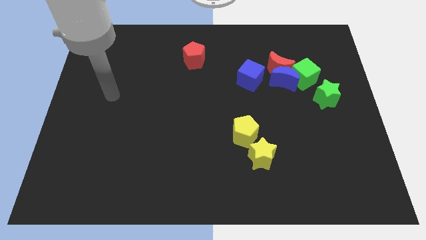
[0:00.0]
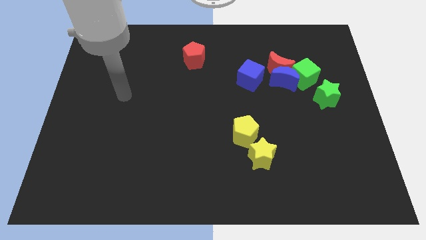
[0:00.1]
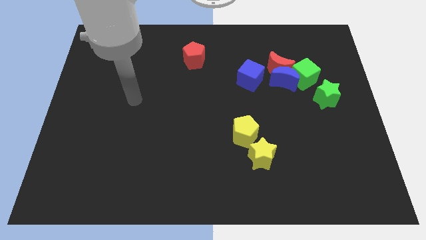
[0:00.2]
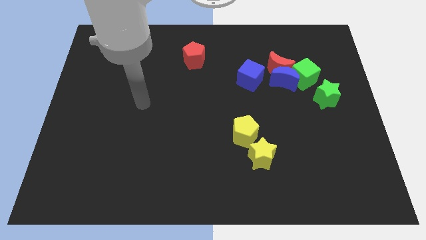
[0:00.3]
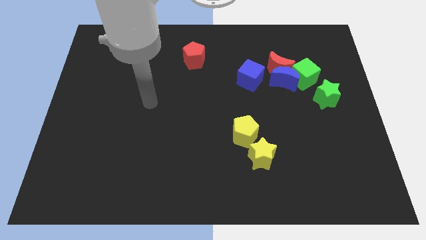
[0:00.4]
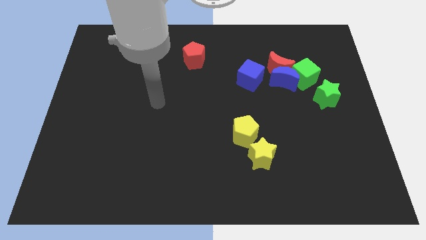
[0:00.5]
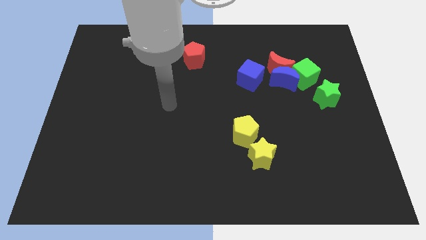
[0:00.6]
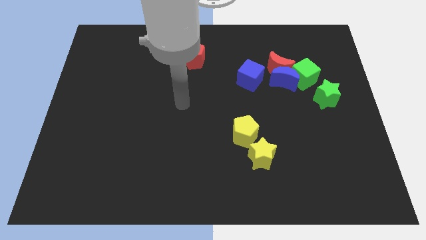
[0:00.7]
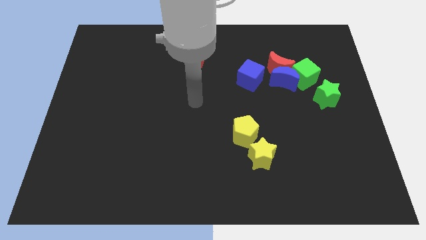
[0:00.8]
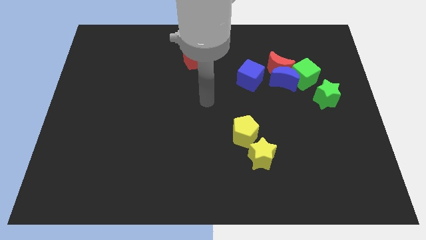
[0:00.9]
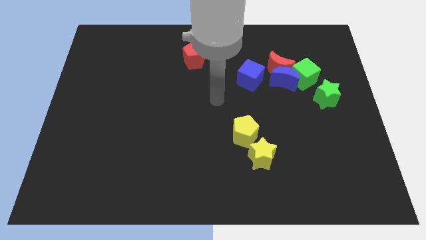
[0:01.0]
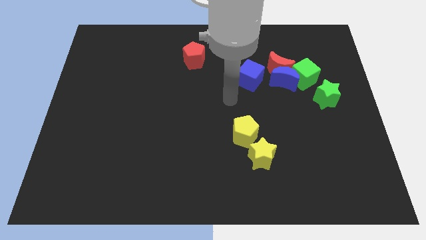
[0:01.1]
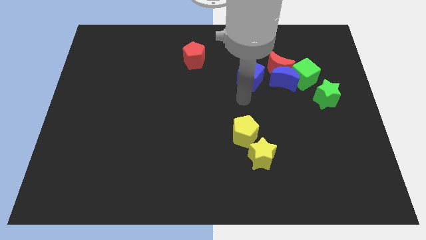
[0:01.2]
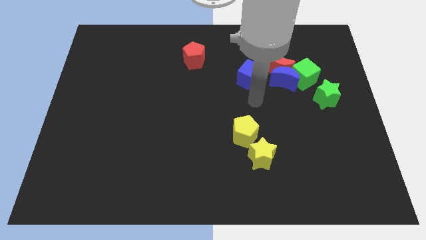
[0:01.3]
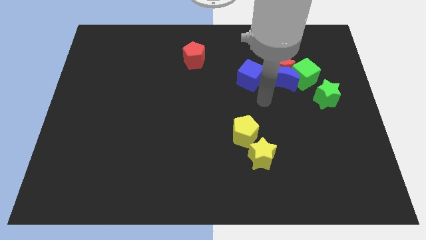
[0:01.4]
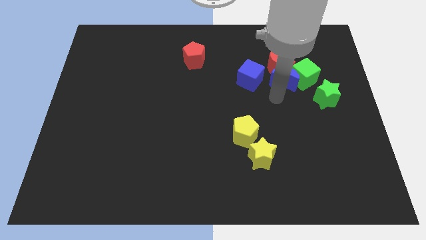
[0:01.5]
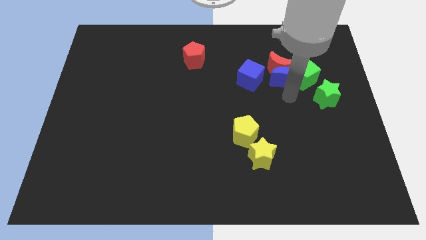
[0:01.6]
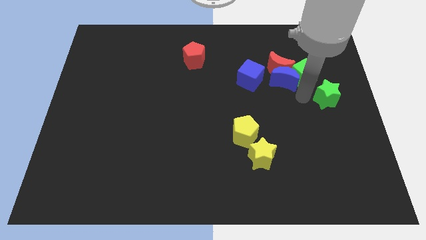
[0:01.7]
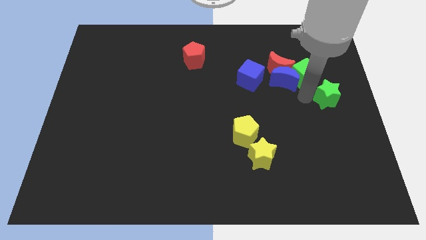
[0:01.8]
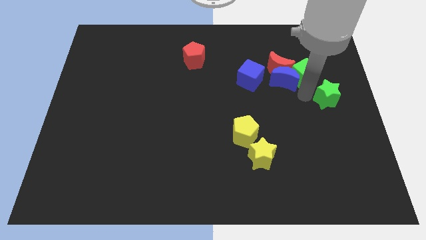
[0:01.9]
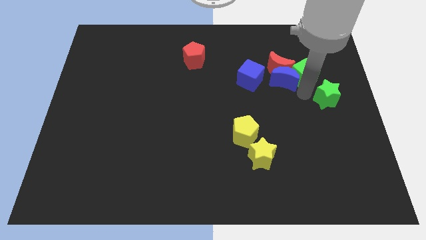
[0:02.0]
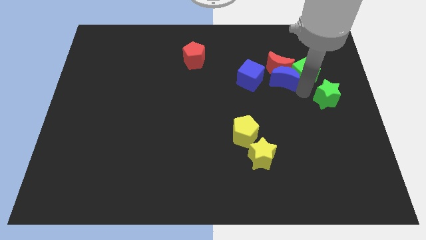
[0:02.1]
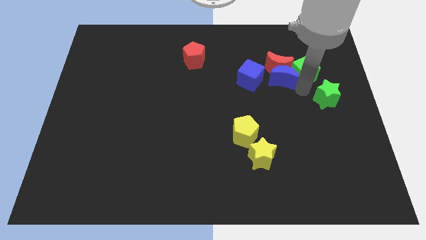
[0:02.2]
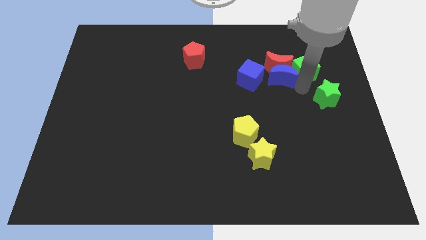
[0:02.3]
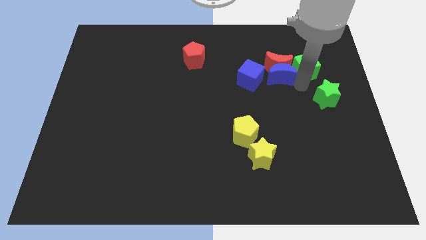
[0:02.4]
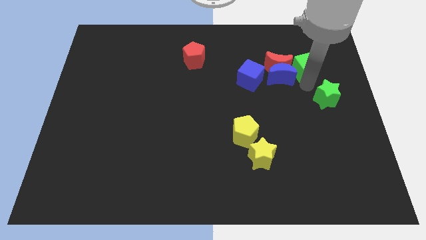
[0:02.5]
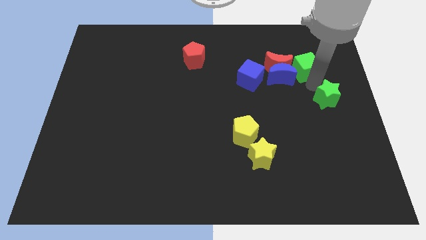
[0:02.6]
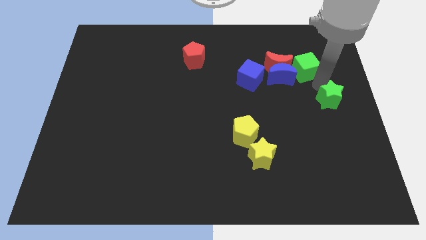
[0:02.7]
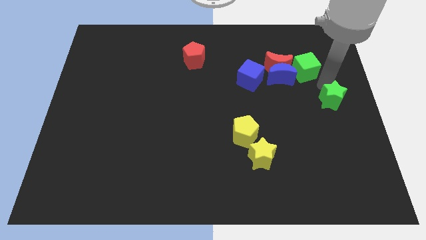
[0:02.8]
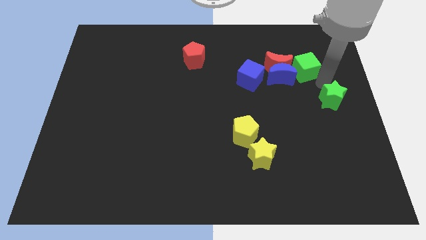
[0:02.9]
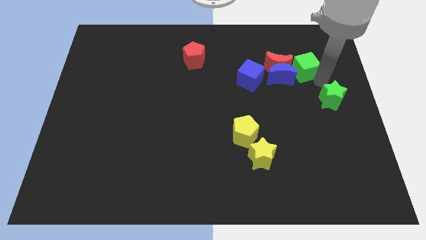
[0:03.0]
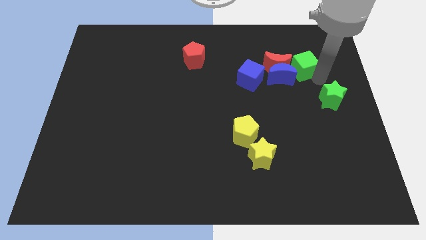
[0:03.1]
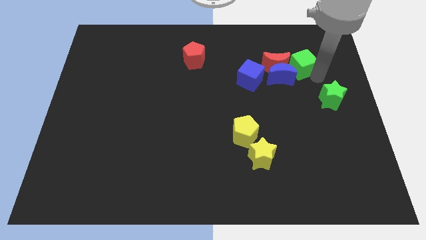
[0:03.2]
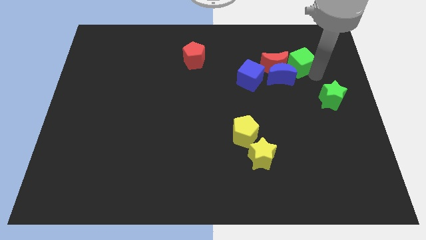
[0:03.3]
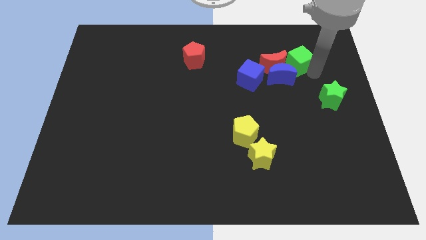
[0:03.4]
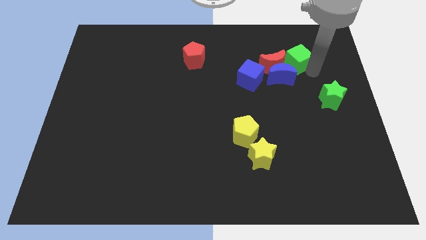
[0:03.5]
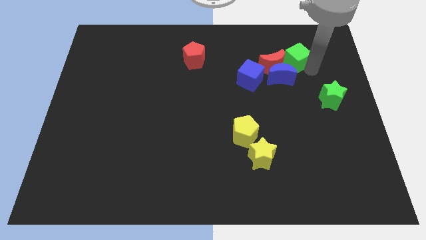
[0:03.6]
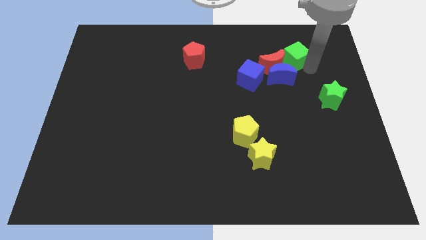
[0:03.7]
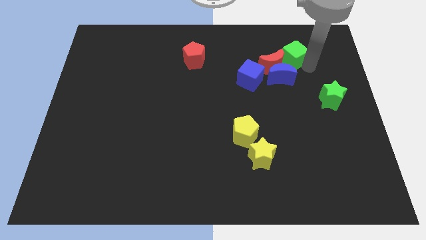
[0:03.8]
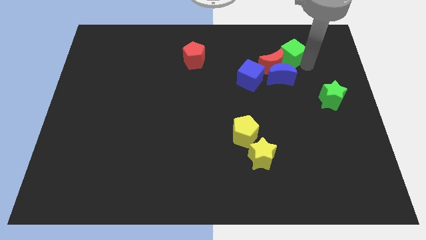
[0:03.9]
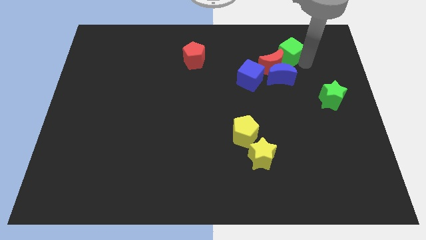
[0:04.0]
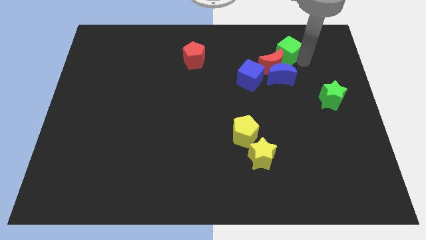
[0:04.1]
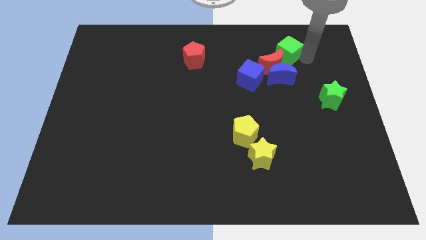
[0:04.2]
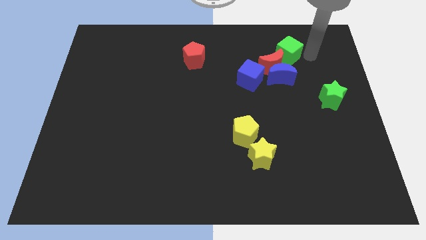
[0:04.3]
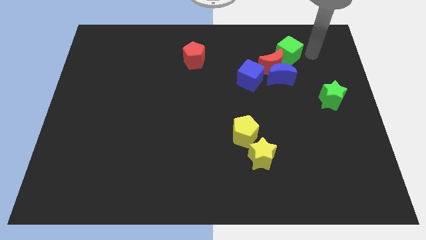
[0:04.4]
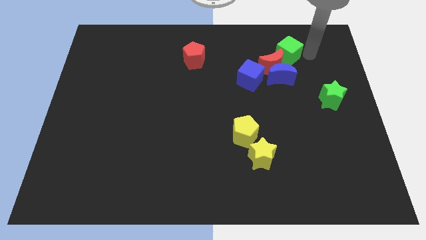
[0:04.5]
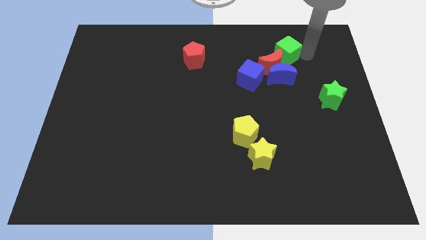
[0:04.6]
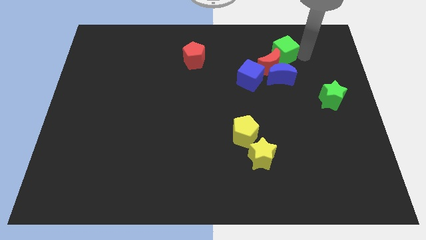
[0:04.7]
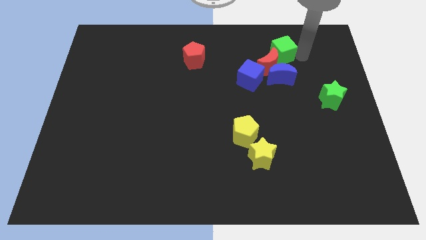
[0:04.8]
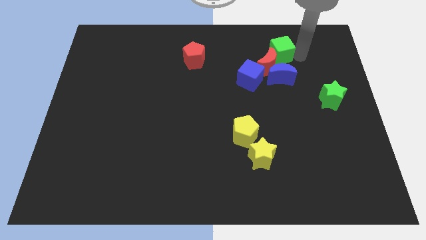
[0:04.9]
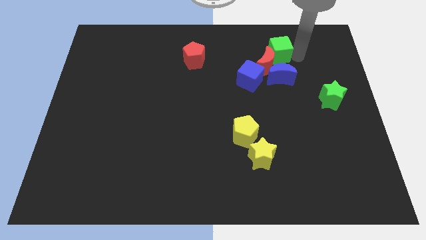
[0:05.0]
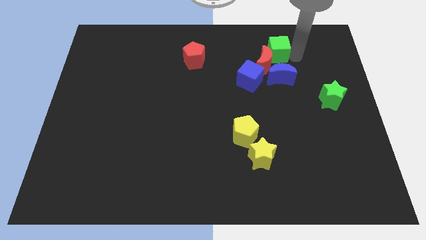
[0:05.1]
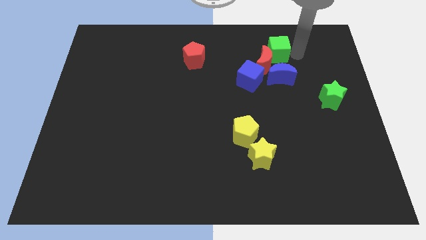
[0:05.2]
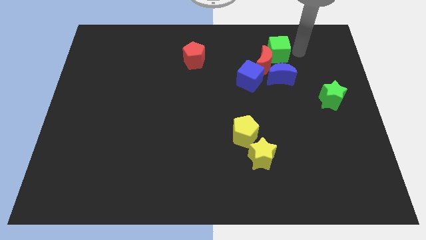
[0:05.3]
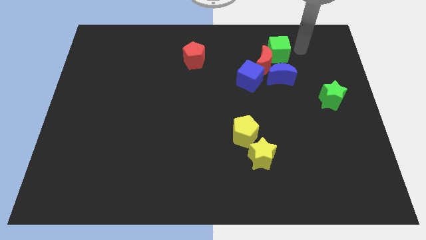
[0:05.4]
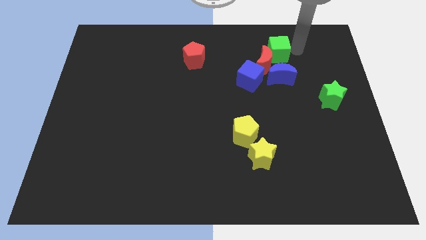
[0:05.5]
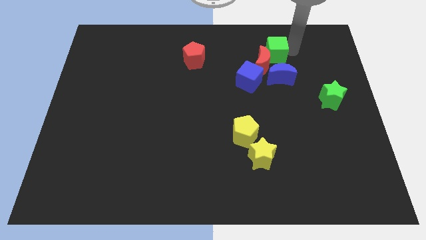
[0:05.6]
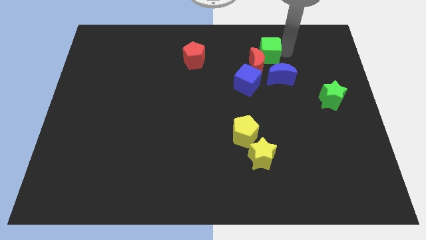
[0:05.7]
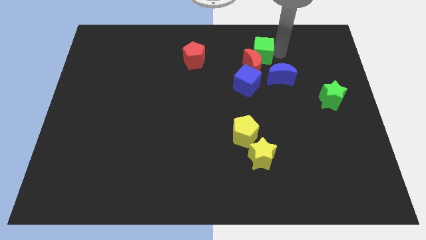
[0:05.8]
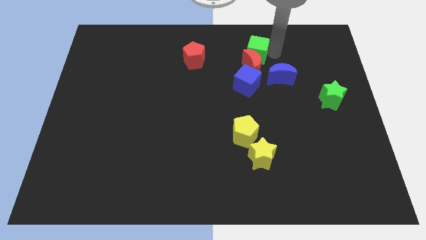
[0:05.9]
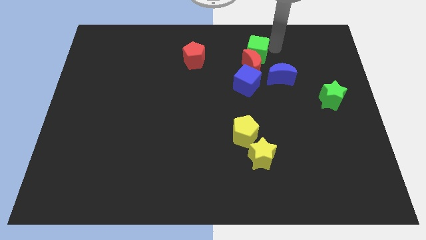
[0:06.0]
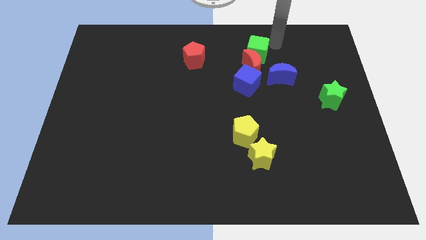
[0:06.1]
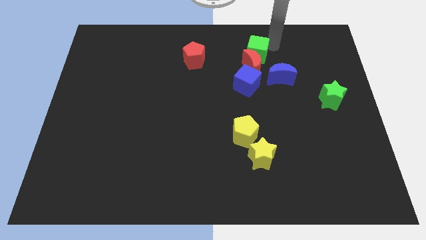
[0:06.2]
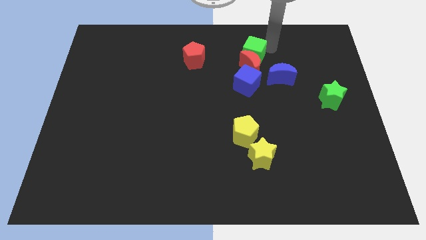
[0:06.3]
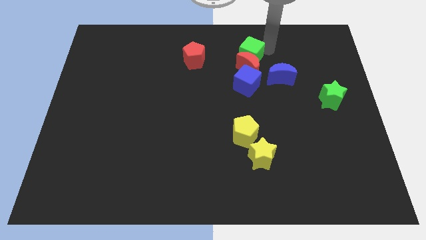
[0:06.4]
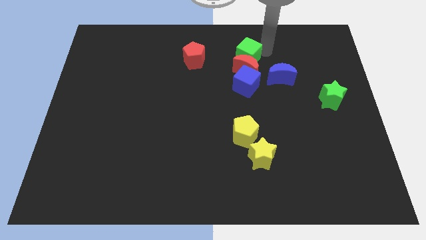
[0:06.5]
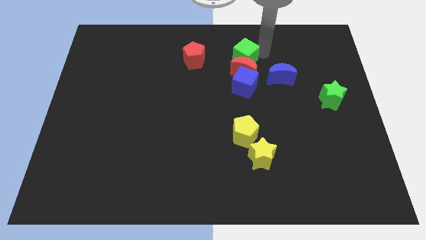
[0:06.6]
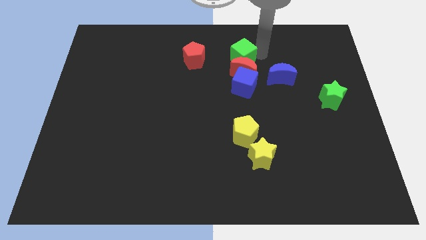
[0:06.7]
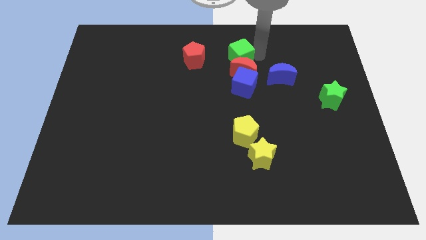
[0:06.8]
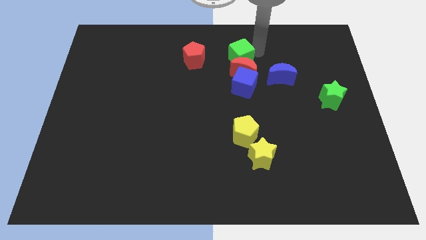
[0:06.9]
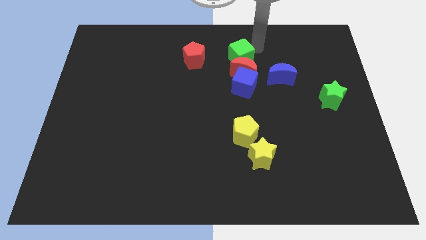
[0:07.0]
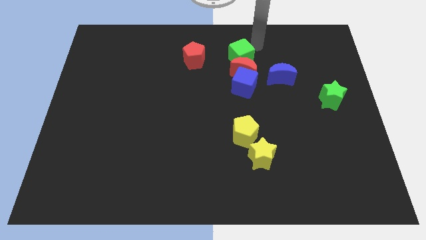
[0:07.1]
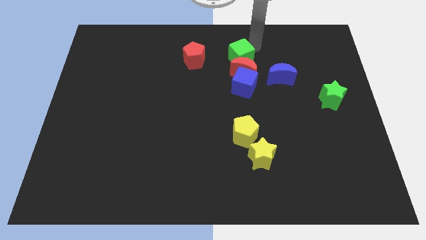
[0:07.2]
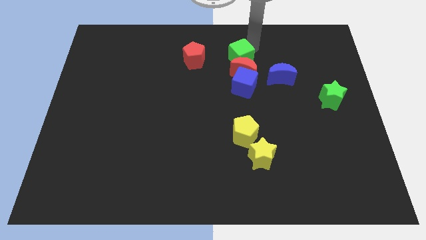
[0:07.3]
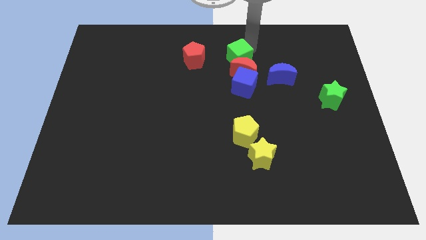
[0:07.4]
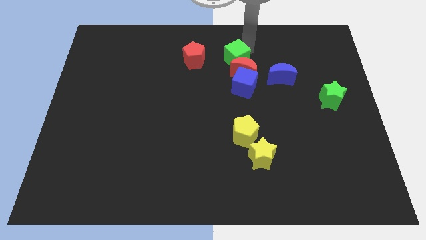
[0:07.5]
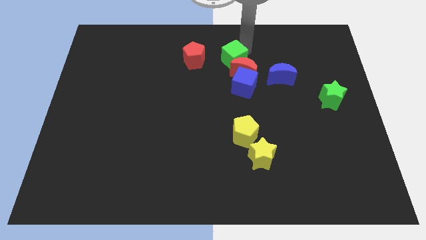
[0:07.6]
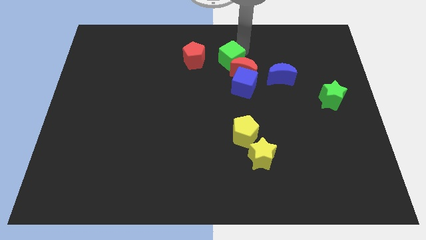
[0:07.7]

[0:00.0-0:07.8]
move the green cube to the top left side of the blue cube
